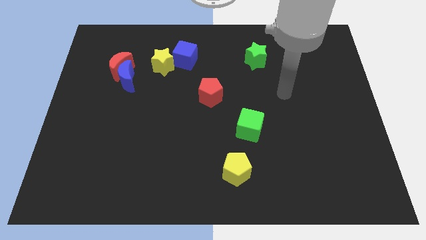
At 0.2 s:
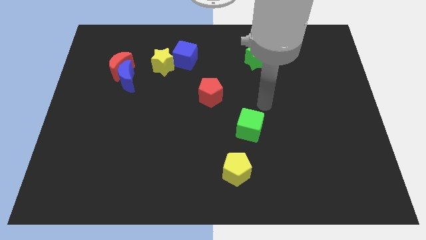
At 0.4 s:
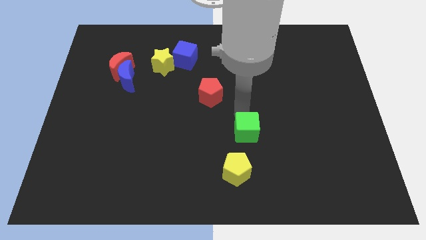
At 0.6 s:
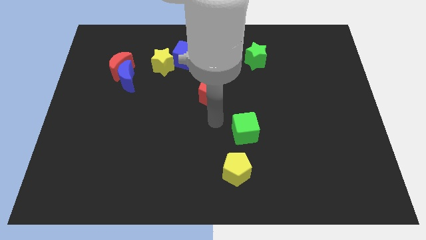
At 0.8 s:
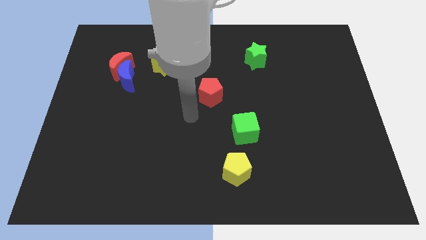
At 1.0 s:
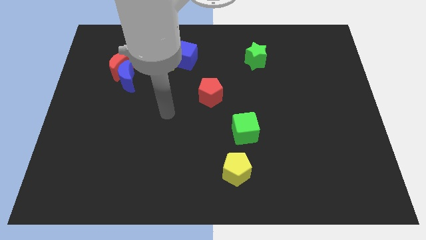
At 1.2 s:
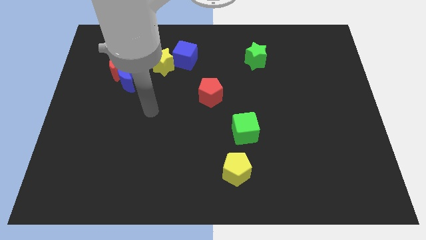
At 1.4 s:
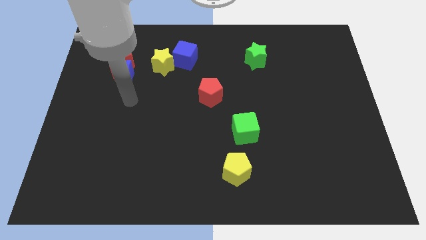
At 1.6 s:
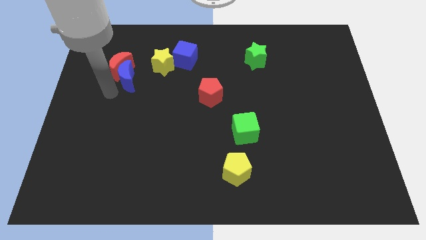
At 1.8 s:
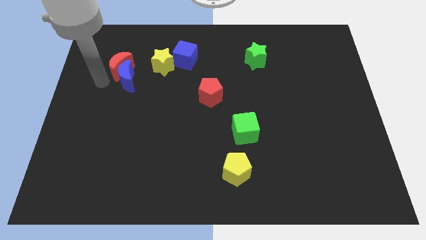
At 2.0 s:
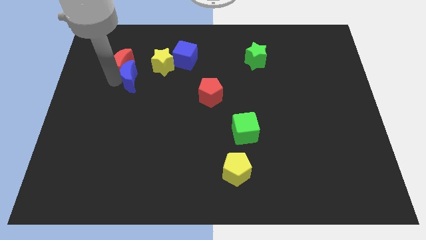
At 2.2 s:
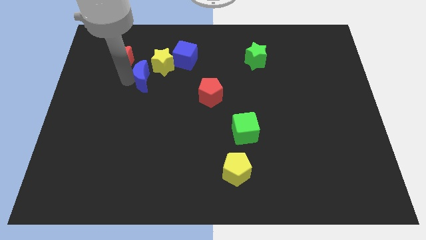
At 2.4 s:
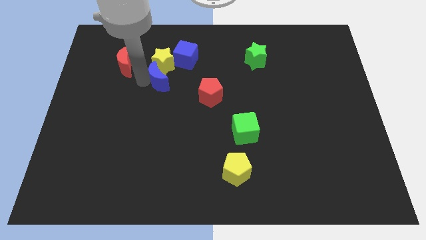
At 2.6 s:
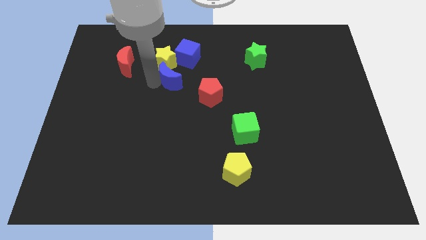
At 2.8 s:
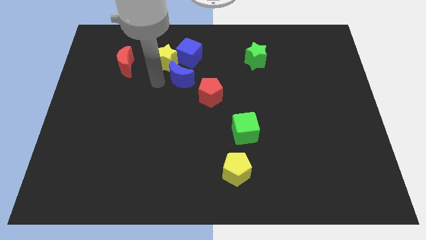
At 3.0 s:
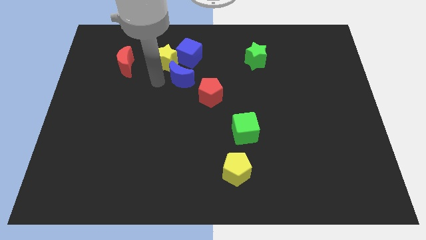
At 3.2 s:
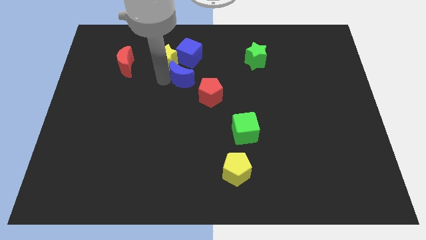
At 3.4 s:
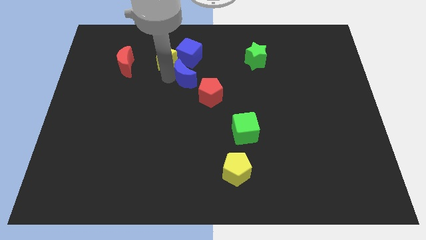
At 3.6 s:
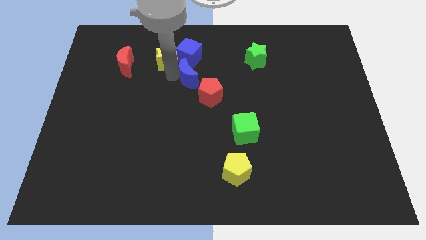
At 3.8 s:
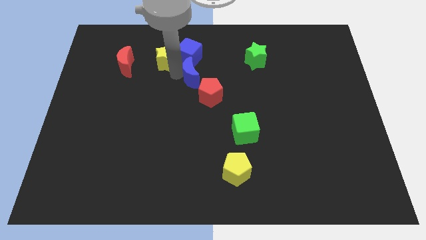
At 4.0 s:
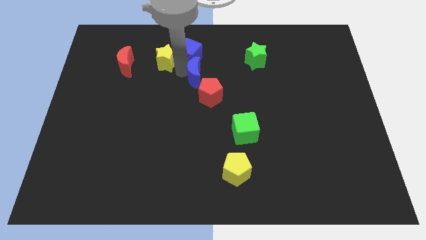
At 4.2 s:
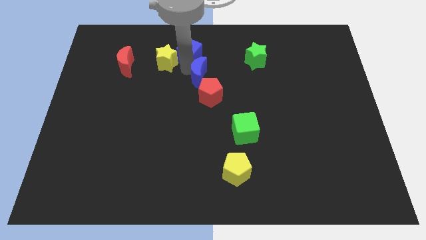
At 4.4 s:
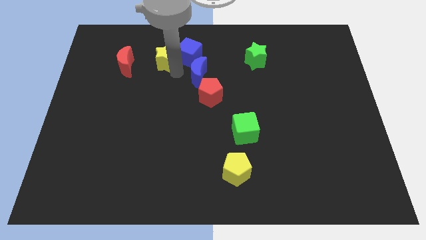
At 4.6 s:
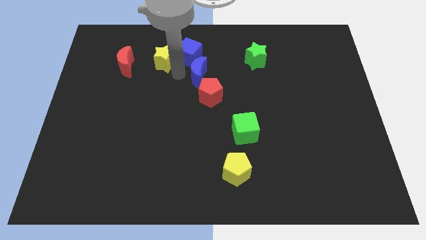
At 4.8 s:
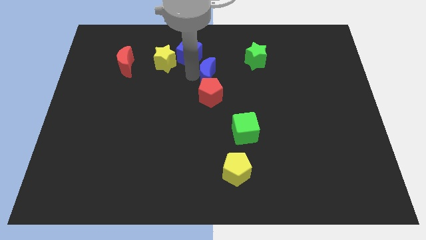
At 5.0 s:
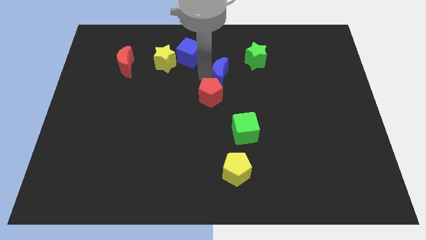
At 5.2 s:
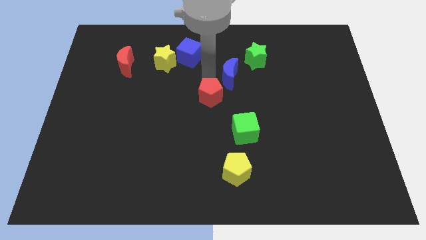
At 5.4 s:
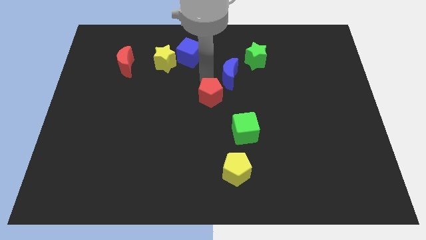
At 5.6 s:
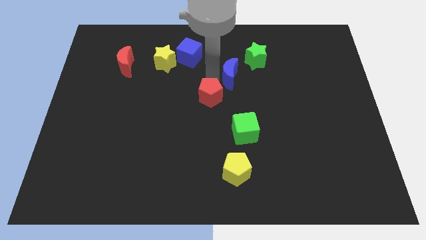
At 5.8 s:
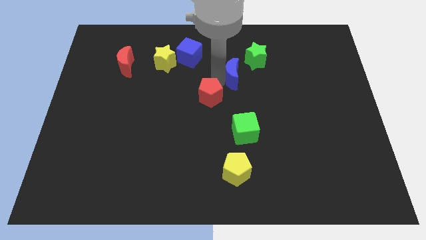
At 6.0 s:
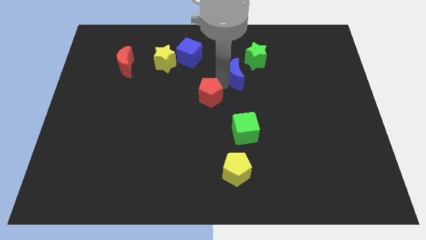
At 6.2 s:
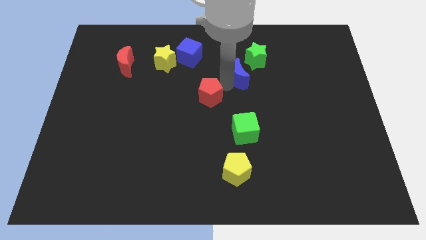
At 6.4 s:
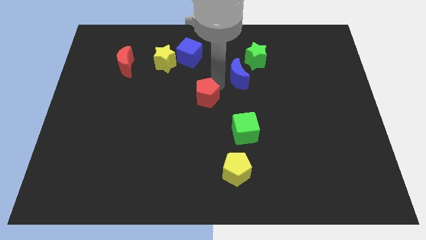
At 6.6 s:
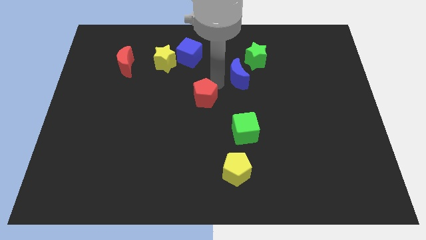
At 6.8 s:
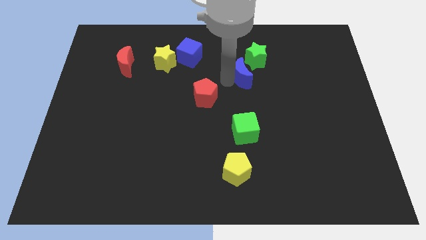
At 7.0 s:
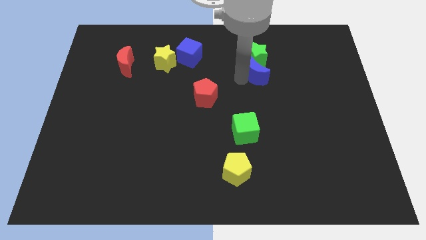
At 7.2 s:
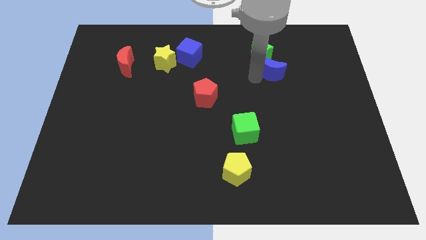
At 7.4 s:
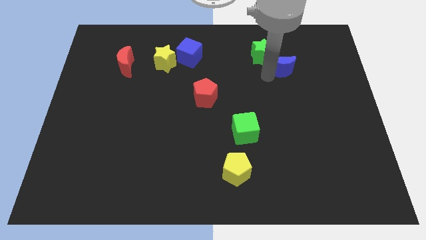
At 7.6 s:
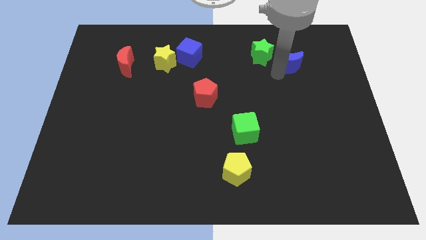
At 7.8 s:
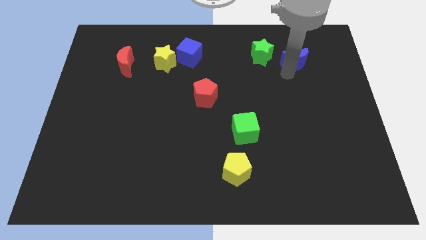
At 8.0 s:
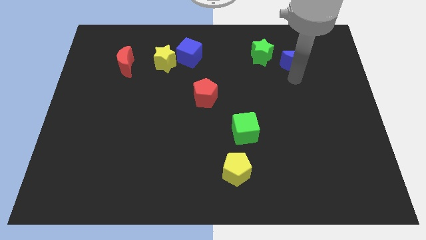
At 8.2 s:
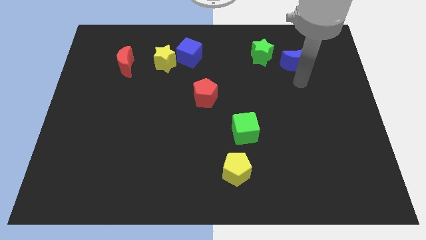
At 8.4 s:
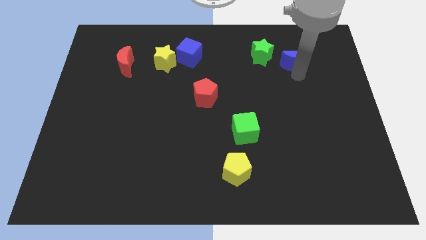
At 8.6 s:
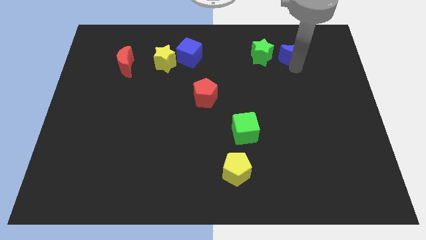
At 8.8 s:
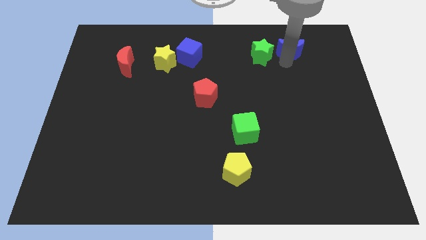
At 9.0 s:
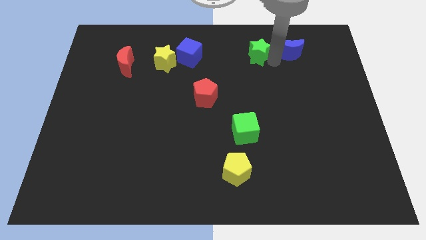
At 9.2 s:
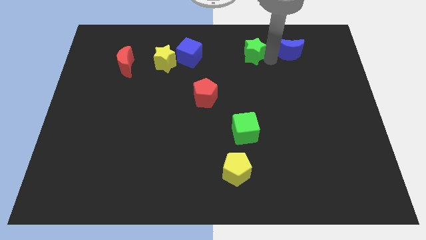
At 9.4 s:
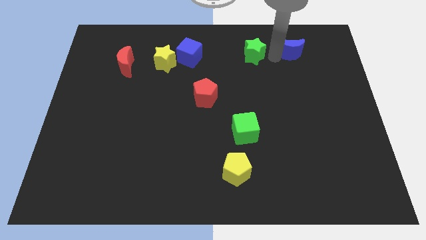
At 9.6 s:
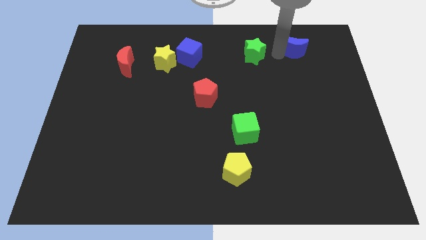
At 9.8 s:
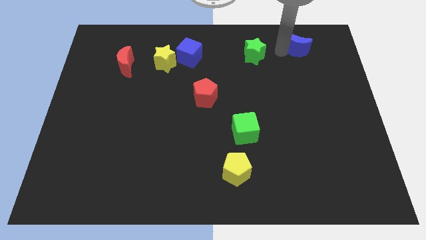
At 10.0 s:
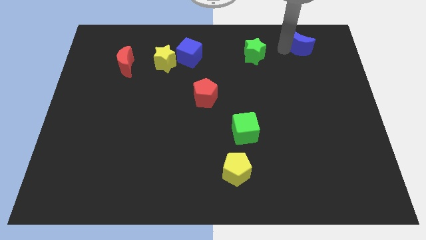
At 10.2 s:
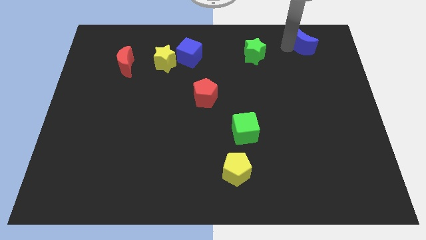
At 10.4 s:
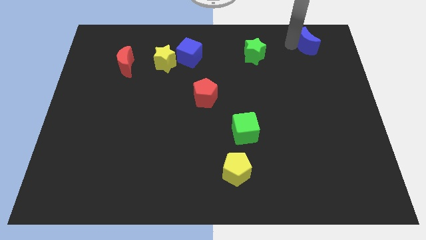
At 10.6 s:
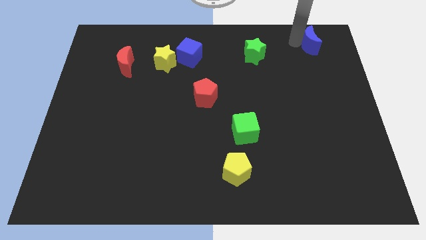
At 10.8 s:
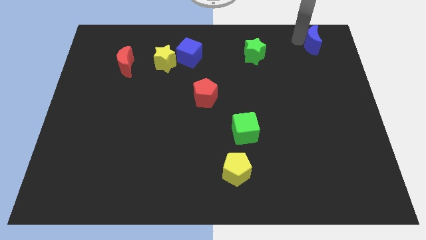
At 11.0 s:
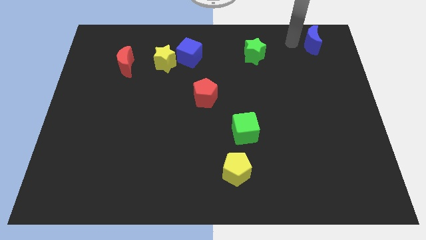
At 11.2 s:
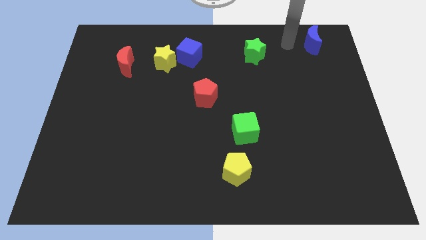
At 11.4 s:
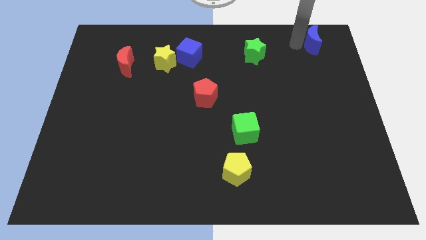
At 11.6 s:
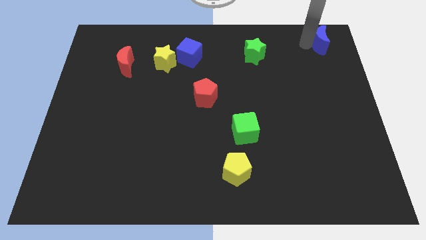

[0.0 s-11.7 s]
push the blue moon to the top right of the board

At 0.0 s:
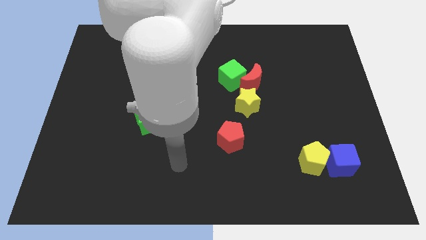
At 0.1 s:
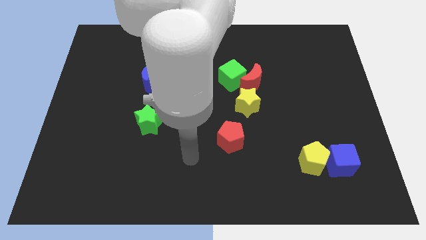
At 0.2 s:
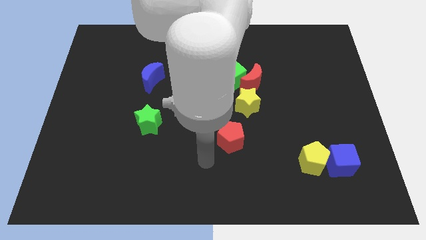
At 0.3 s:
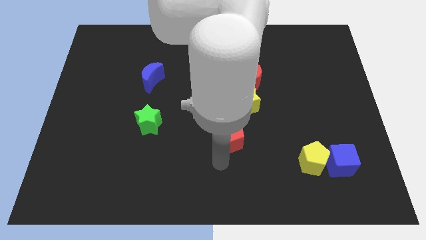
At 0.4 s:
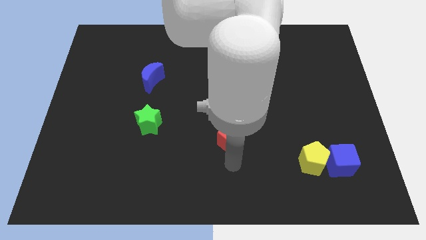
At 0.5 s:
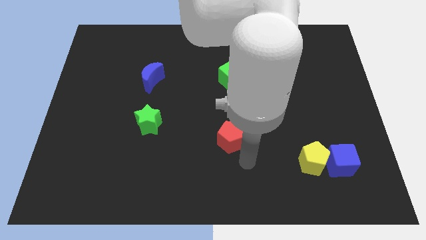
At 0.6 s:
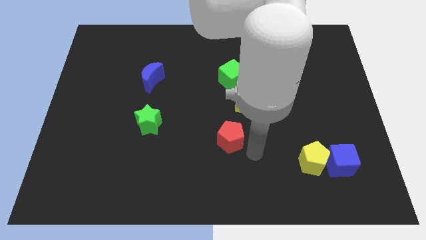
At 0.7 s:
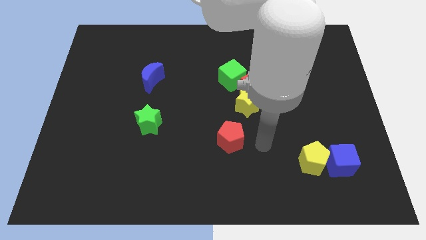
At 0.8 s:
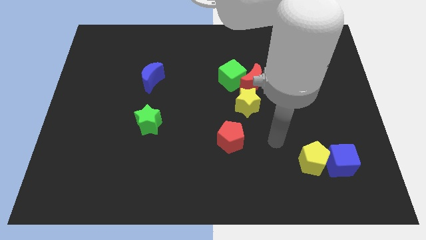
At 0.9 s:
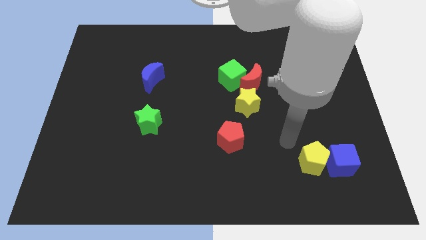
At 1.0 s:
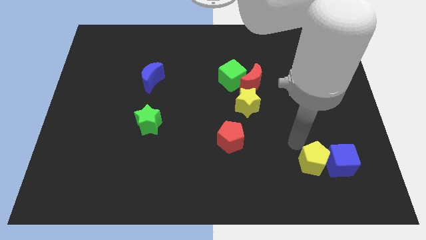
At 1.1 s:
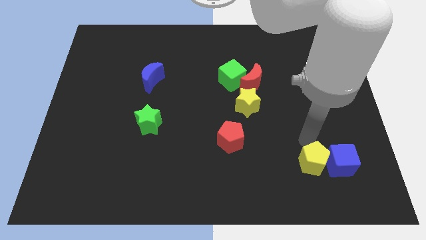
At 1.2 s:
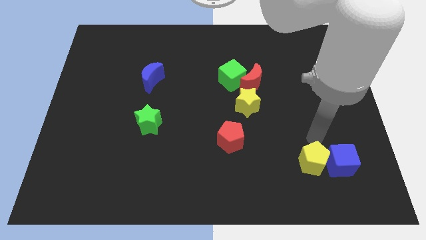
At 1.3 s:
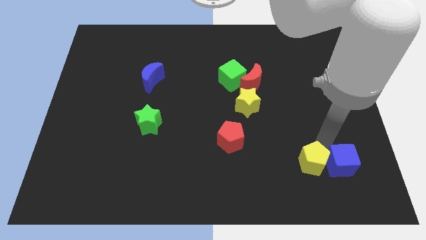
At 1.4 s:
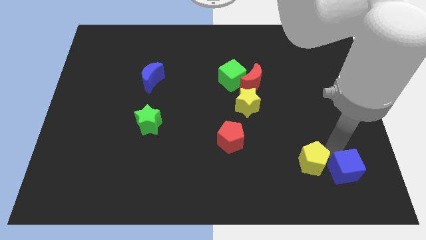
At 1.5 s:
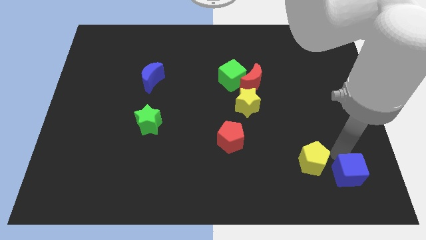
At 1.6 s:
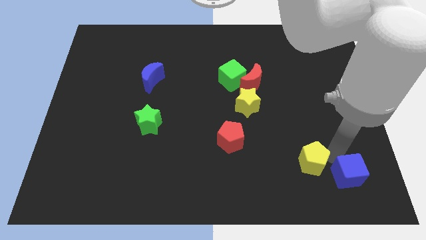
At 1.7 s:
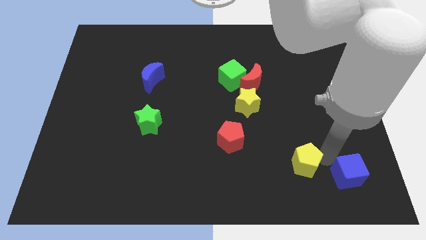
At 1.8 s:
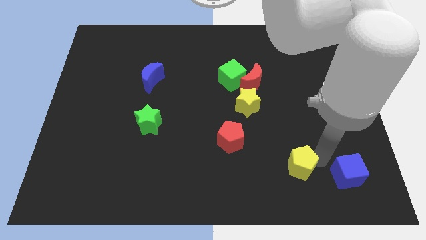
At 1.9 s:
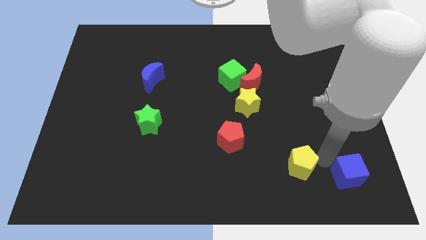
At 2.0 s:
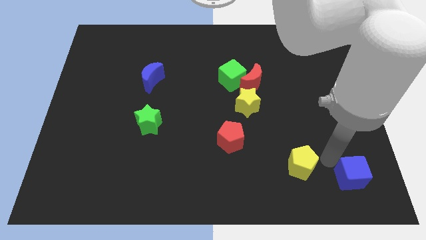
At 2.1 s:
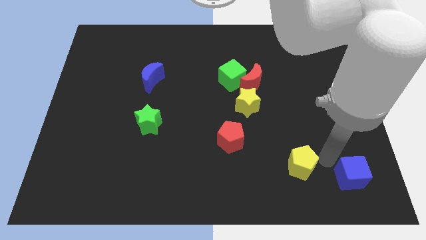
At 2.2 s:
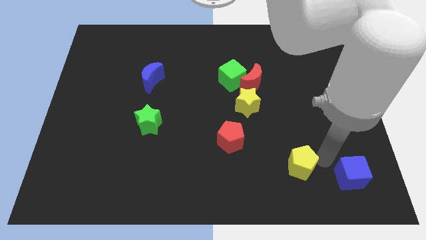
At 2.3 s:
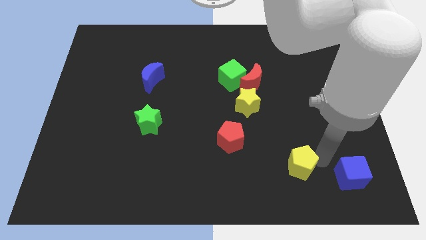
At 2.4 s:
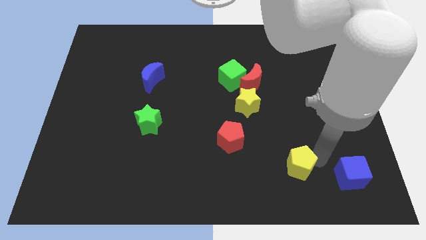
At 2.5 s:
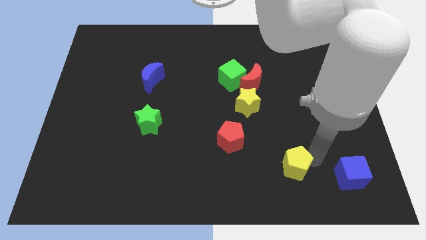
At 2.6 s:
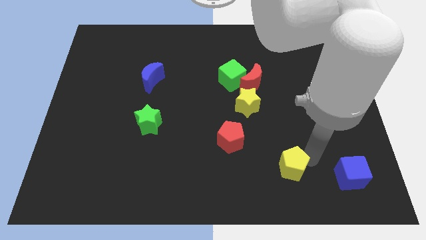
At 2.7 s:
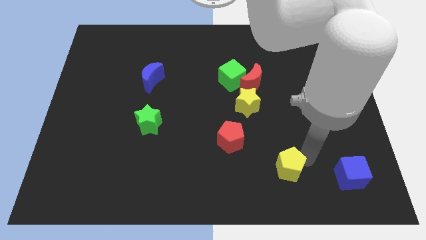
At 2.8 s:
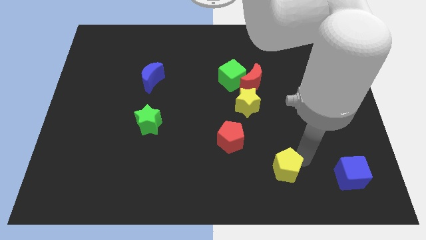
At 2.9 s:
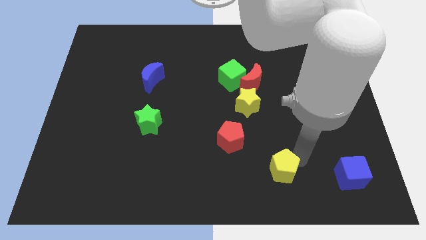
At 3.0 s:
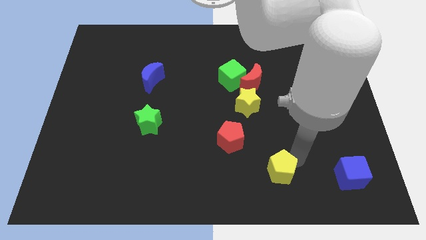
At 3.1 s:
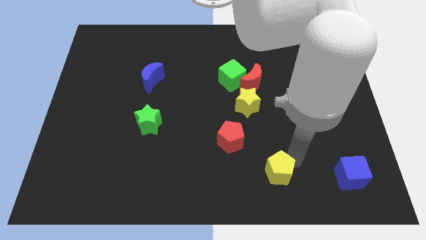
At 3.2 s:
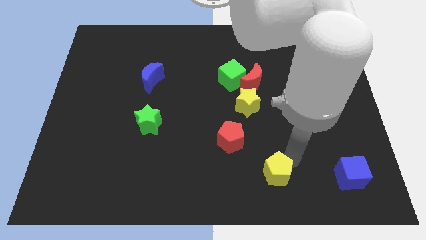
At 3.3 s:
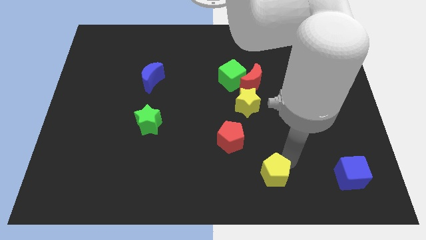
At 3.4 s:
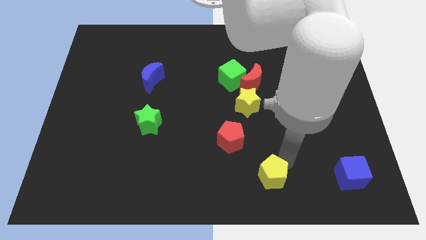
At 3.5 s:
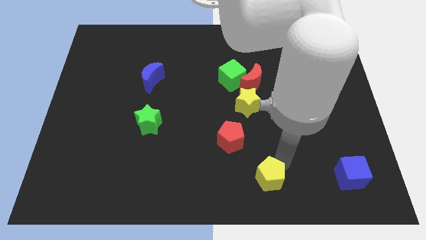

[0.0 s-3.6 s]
slide the yellow pentagon to the bottom
